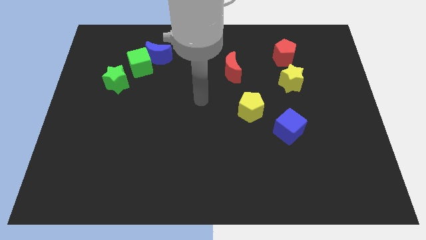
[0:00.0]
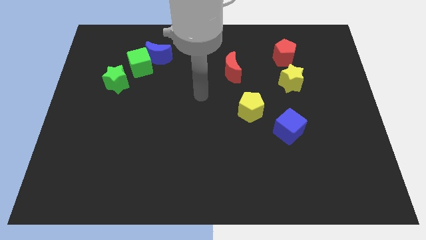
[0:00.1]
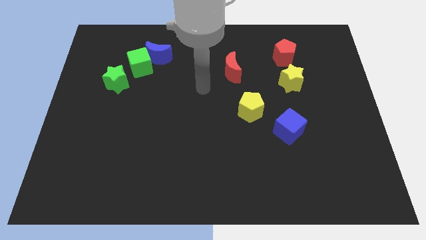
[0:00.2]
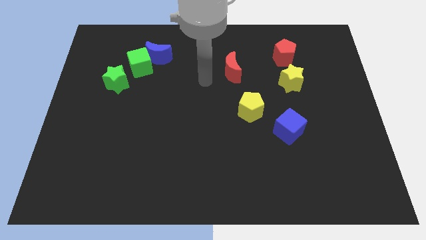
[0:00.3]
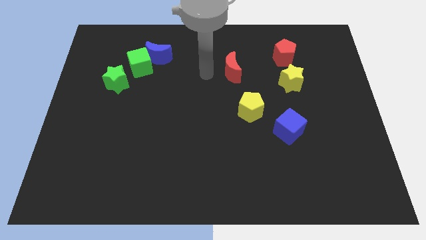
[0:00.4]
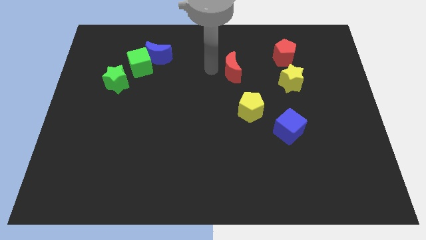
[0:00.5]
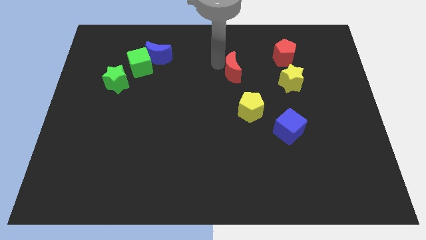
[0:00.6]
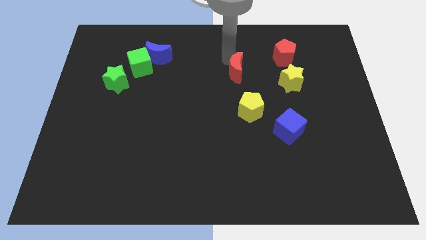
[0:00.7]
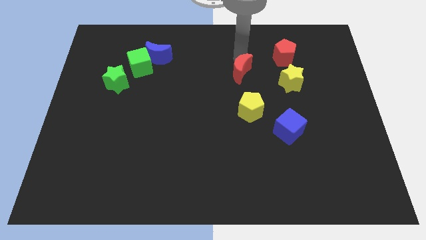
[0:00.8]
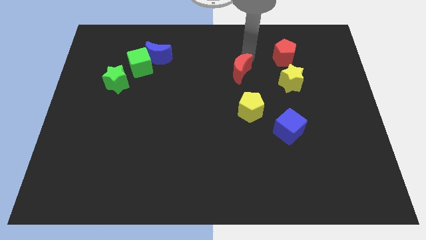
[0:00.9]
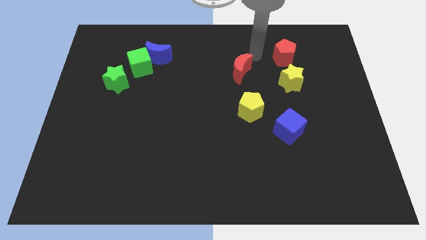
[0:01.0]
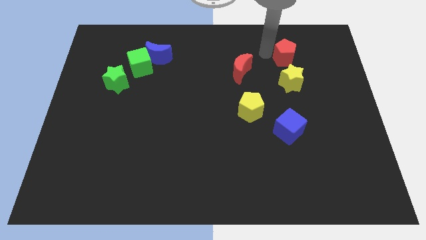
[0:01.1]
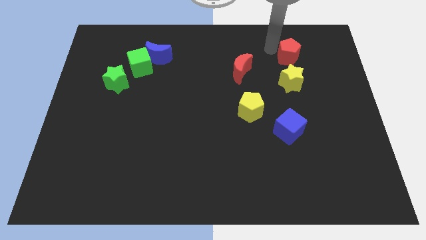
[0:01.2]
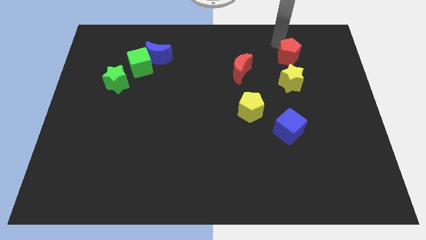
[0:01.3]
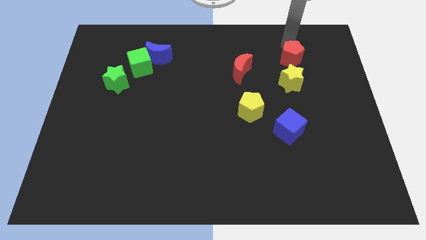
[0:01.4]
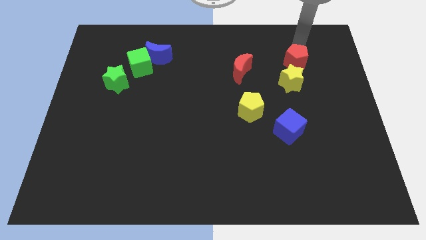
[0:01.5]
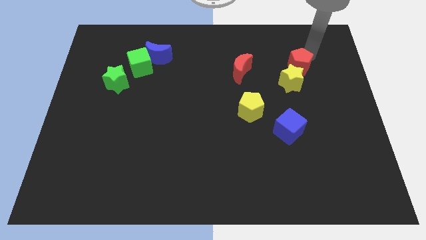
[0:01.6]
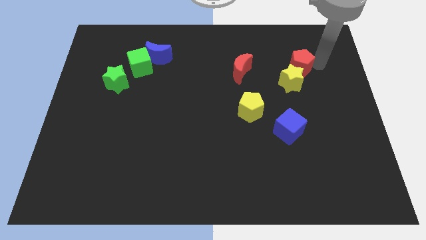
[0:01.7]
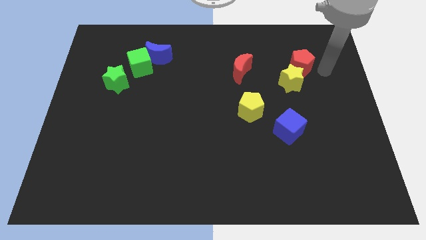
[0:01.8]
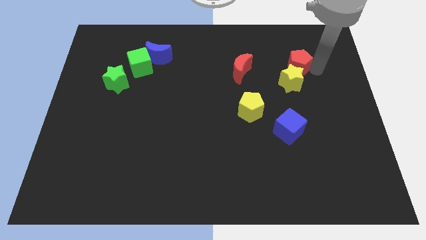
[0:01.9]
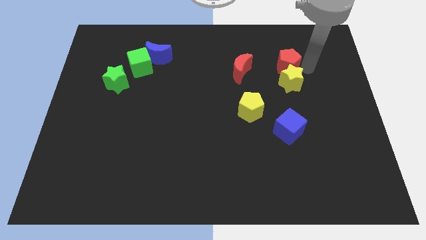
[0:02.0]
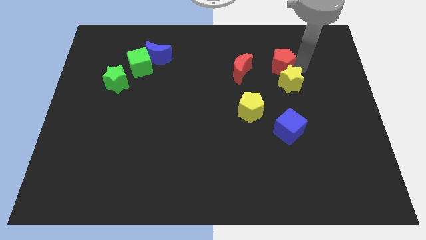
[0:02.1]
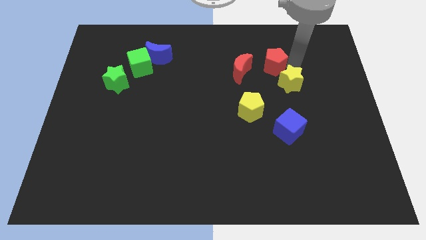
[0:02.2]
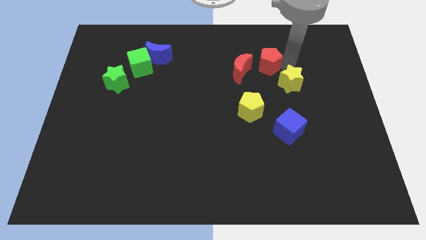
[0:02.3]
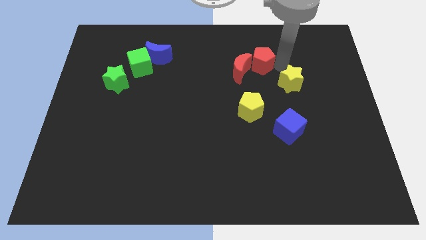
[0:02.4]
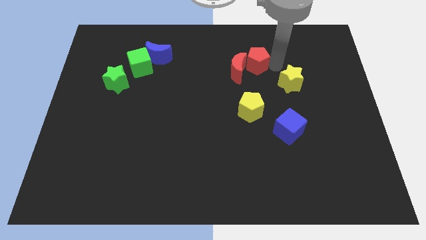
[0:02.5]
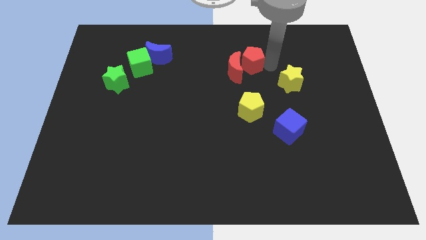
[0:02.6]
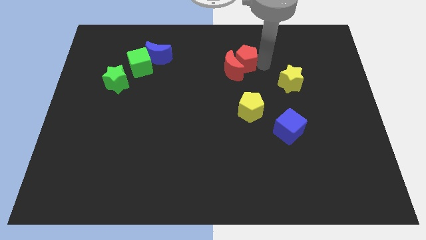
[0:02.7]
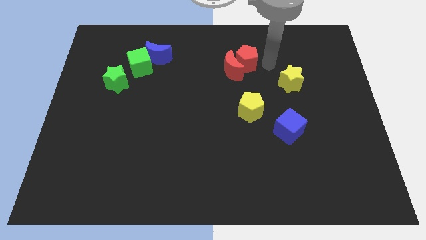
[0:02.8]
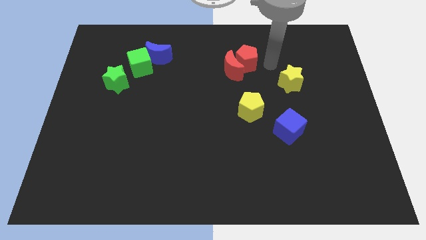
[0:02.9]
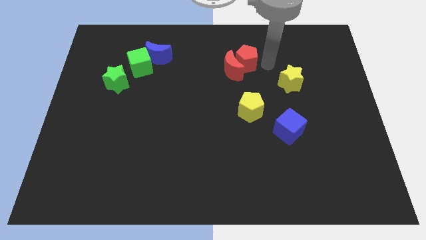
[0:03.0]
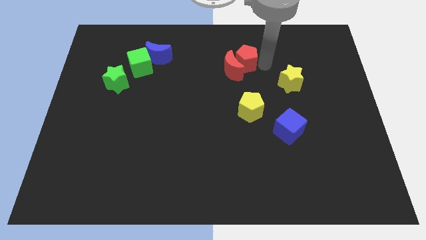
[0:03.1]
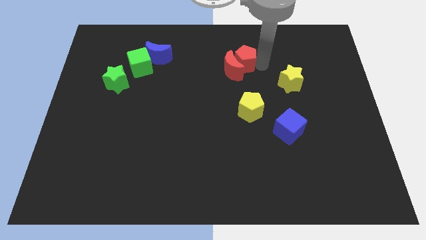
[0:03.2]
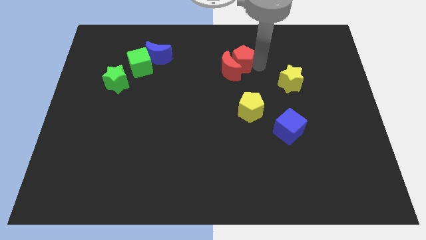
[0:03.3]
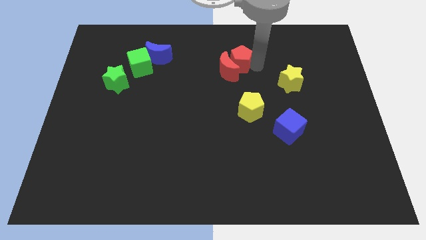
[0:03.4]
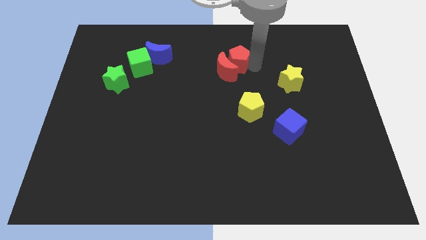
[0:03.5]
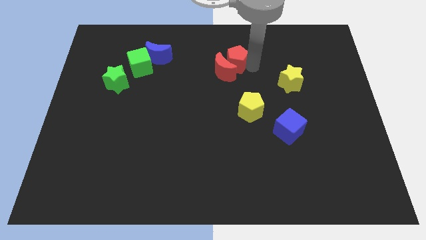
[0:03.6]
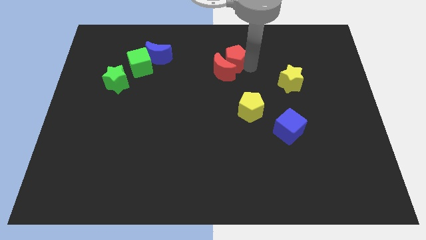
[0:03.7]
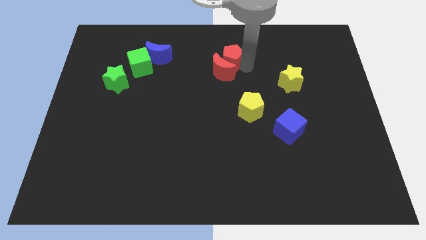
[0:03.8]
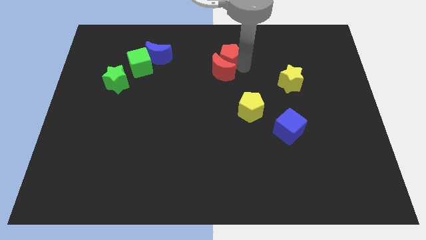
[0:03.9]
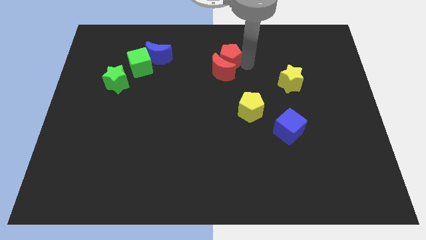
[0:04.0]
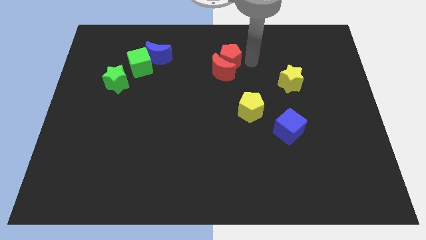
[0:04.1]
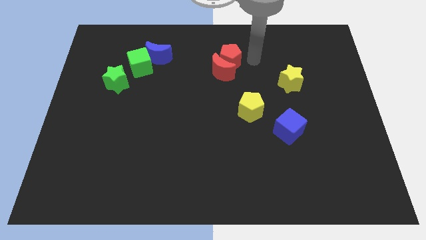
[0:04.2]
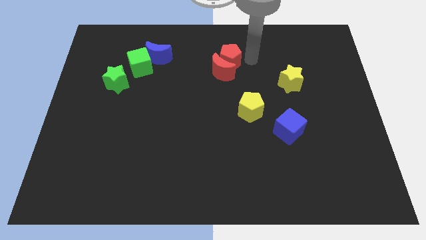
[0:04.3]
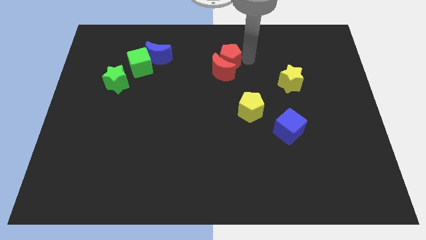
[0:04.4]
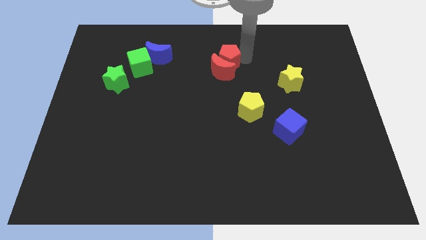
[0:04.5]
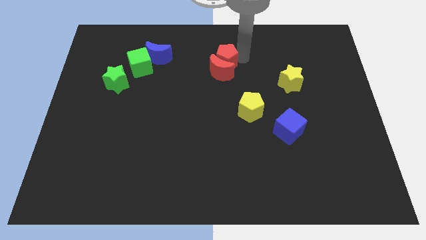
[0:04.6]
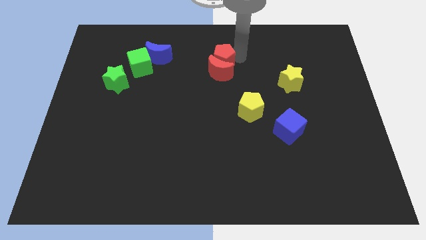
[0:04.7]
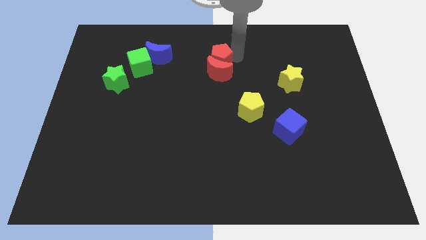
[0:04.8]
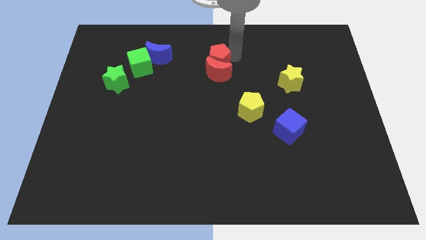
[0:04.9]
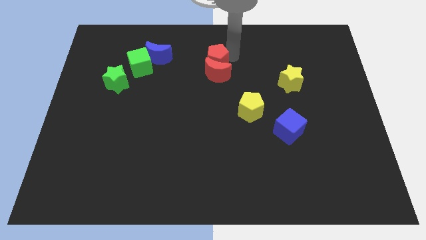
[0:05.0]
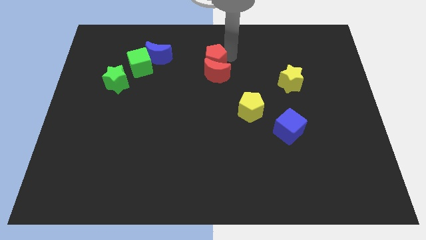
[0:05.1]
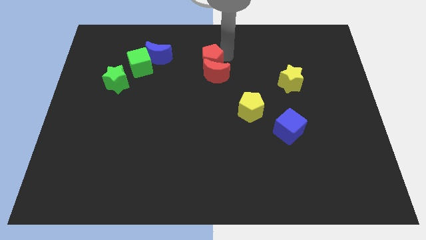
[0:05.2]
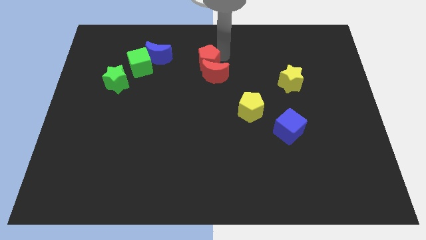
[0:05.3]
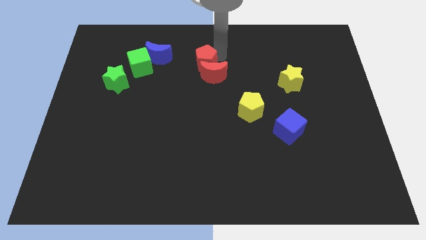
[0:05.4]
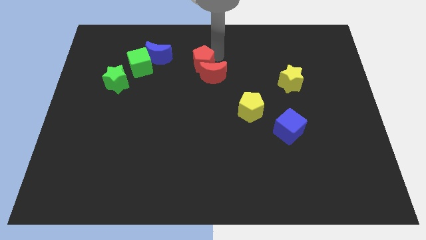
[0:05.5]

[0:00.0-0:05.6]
push the red pentagon just right of the green cube

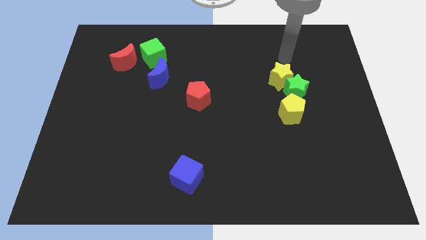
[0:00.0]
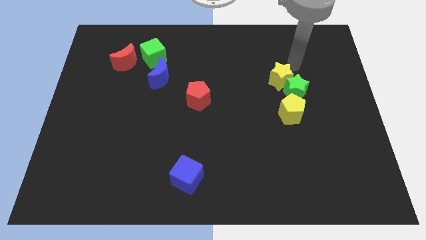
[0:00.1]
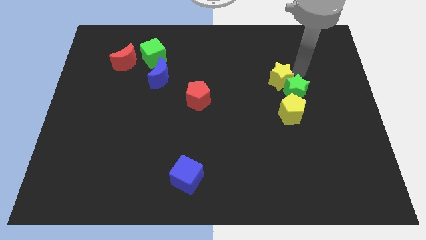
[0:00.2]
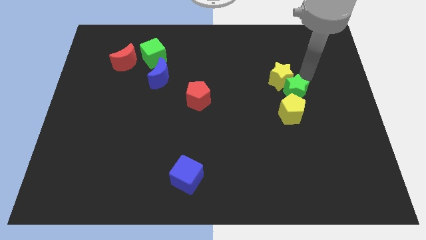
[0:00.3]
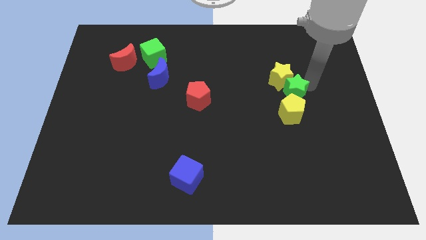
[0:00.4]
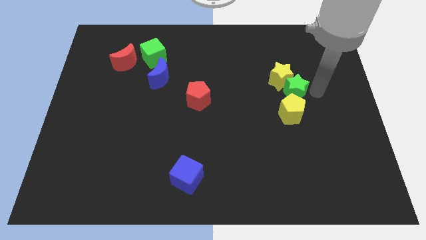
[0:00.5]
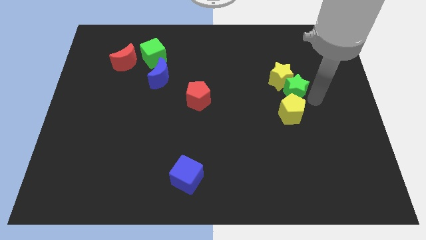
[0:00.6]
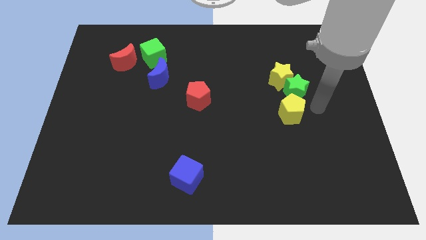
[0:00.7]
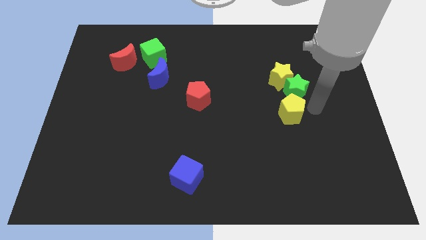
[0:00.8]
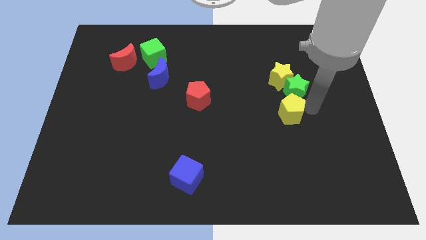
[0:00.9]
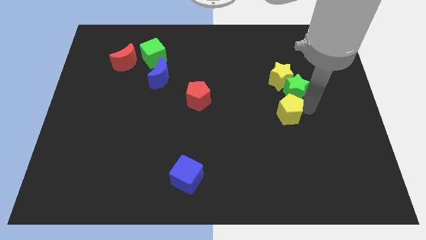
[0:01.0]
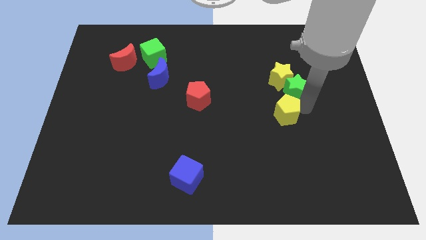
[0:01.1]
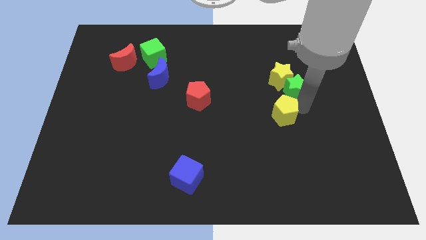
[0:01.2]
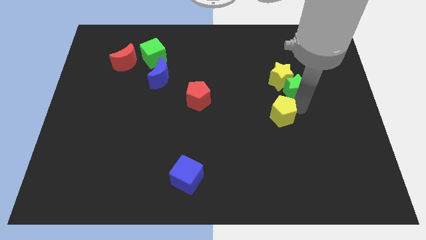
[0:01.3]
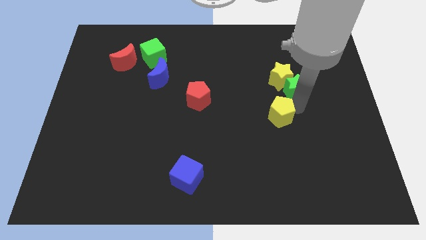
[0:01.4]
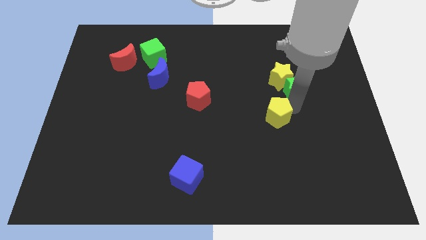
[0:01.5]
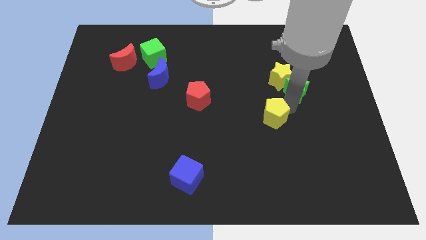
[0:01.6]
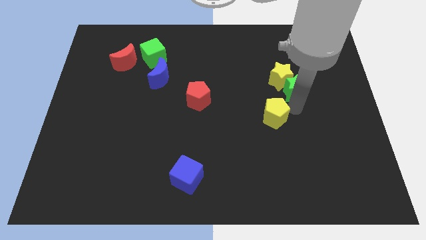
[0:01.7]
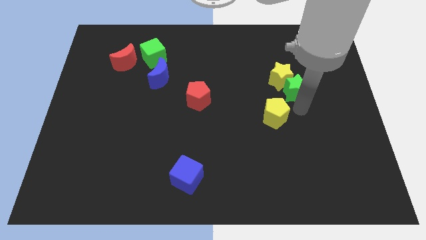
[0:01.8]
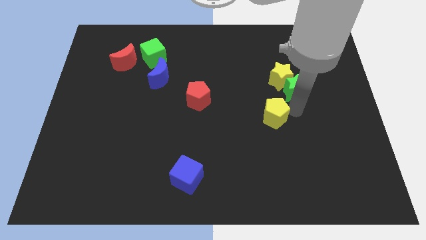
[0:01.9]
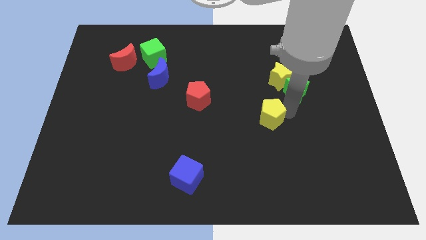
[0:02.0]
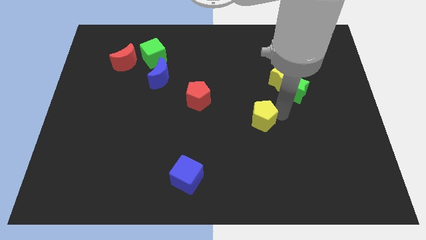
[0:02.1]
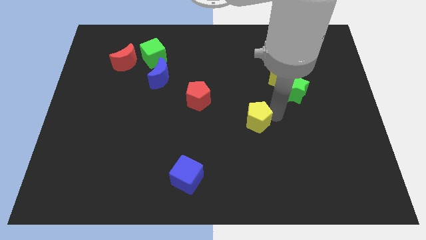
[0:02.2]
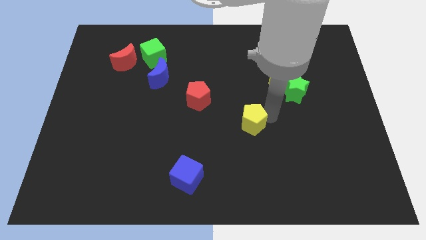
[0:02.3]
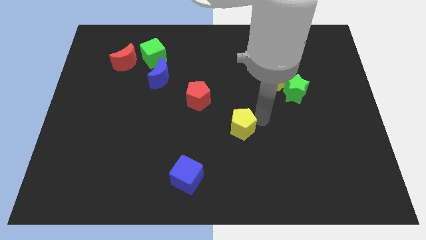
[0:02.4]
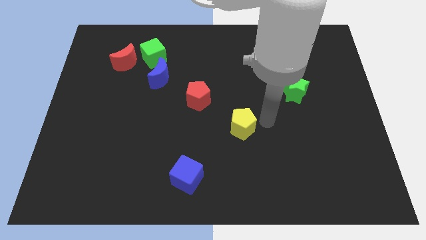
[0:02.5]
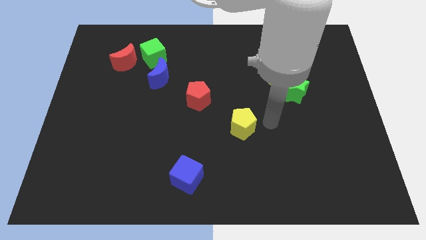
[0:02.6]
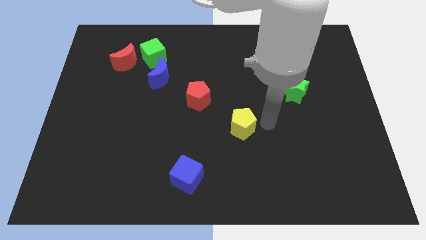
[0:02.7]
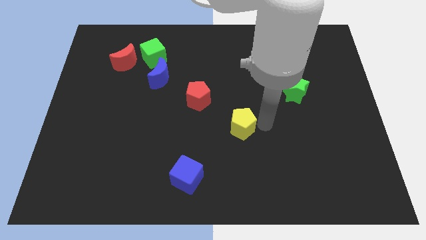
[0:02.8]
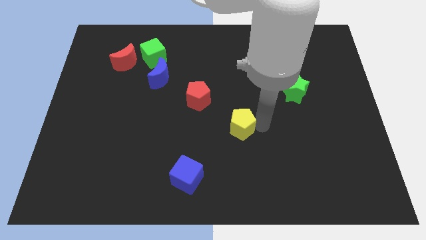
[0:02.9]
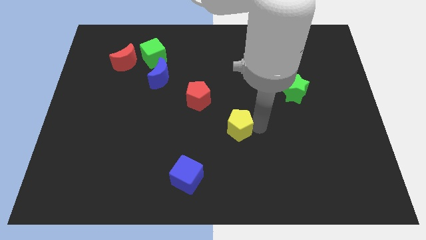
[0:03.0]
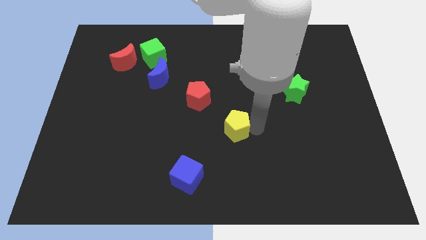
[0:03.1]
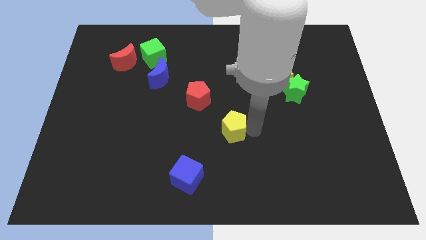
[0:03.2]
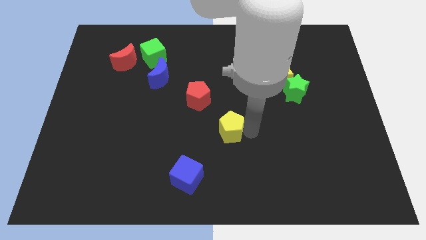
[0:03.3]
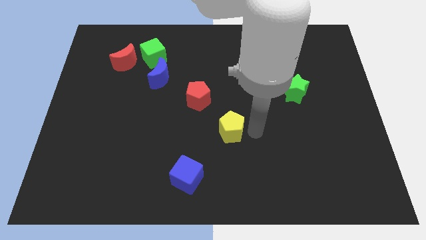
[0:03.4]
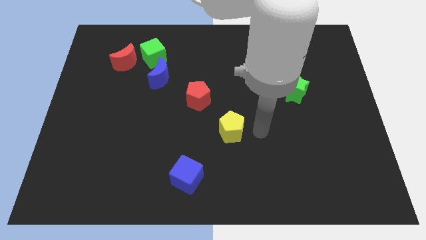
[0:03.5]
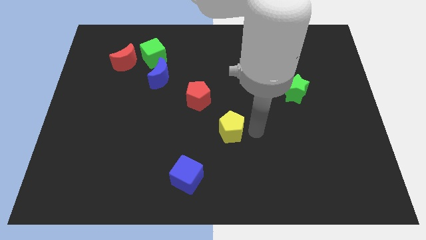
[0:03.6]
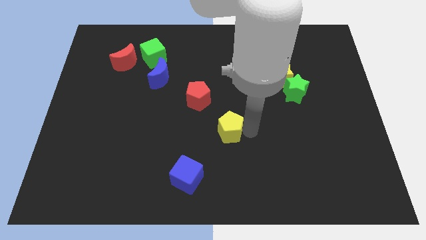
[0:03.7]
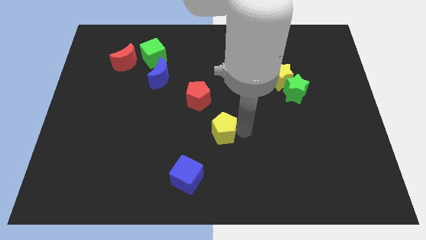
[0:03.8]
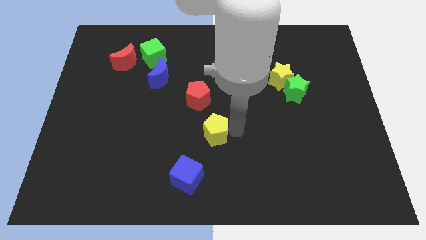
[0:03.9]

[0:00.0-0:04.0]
move the yellow pentagon to the bottom of the red pentagon
